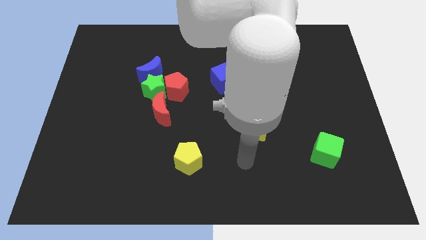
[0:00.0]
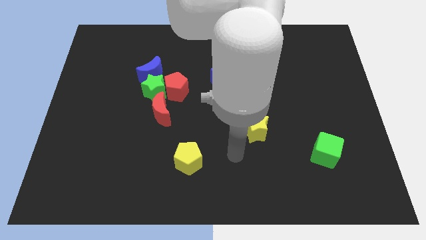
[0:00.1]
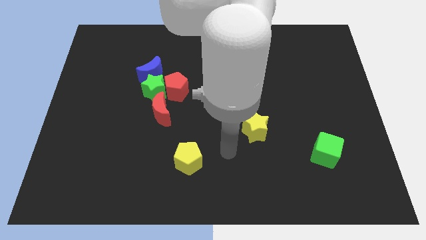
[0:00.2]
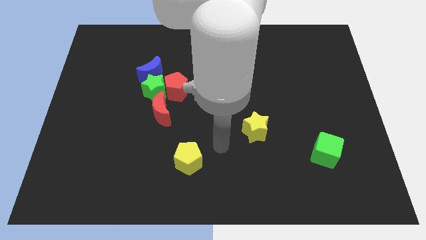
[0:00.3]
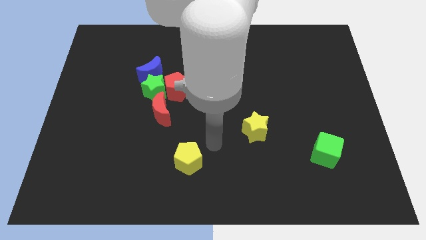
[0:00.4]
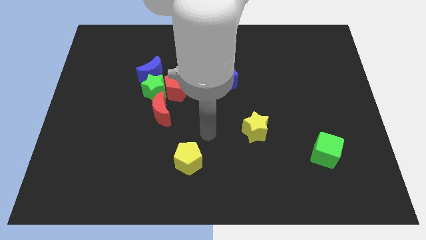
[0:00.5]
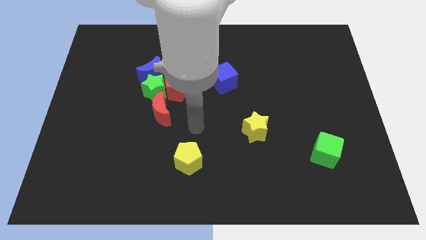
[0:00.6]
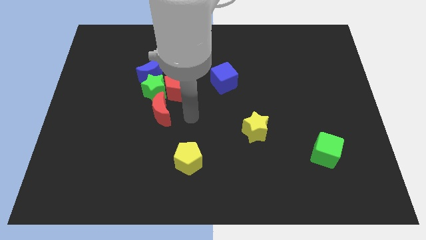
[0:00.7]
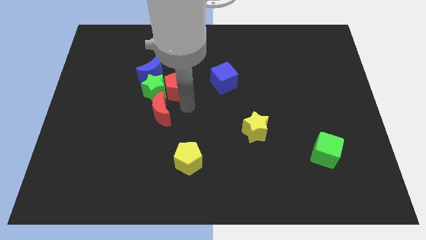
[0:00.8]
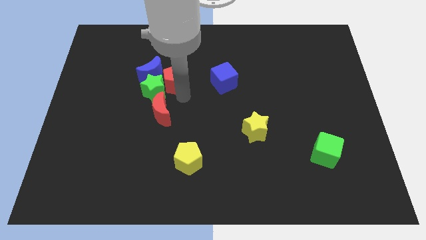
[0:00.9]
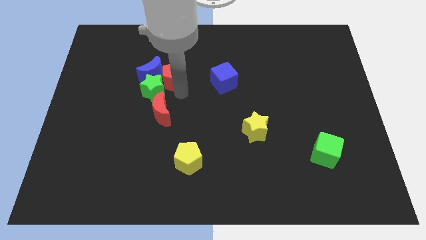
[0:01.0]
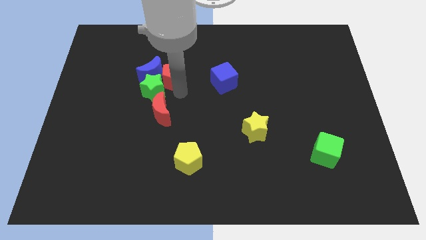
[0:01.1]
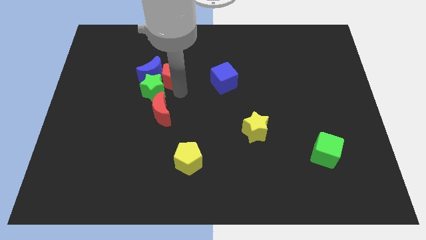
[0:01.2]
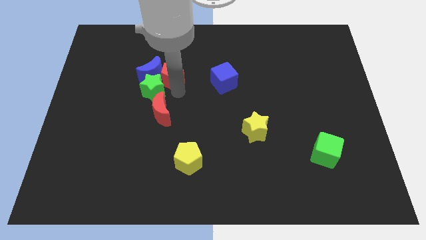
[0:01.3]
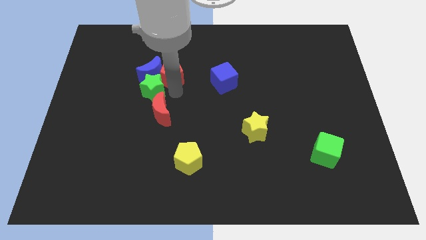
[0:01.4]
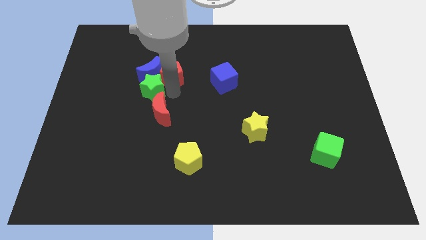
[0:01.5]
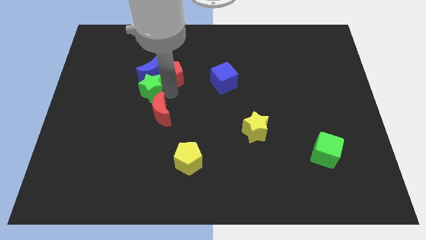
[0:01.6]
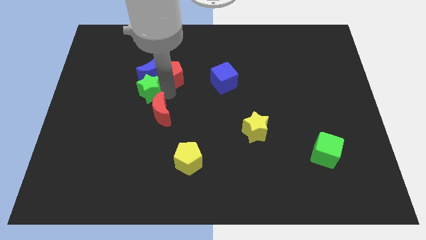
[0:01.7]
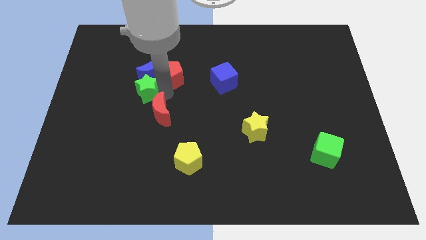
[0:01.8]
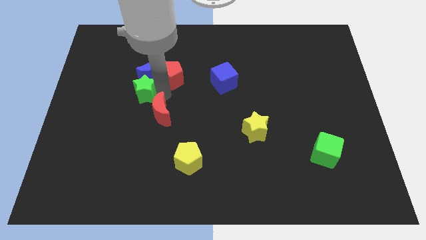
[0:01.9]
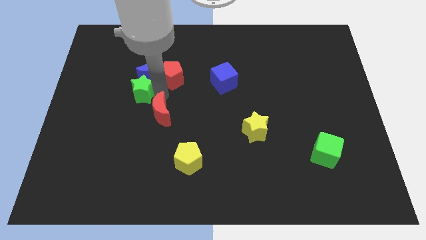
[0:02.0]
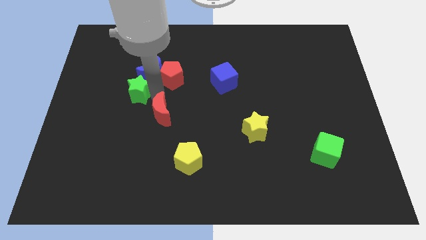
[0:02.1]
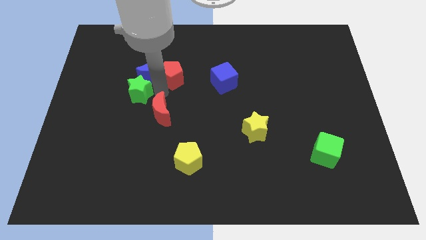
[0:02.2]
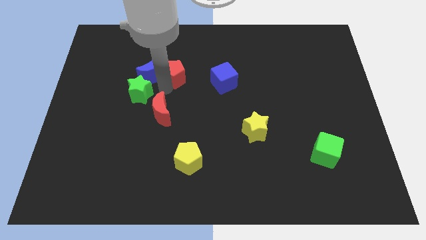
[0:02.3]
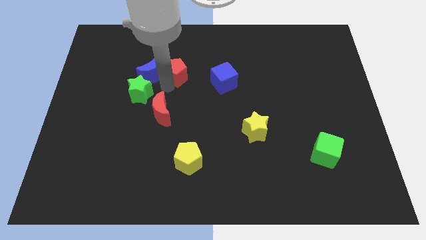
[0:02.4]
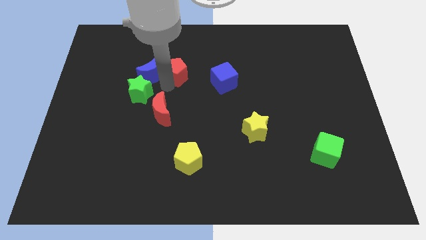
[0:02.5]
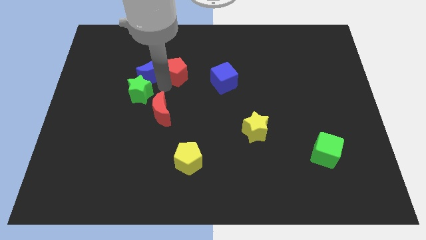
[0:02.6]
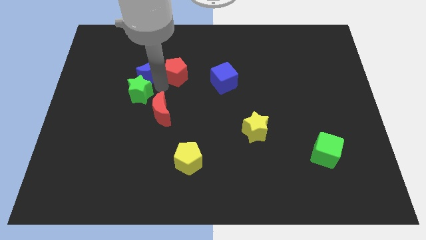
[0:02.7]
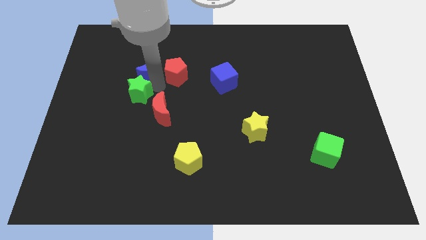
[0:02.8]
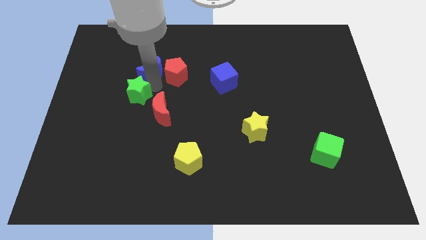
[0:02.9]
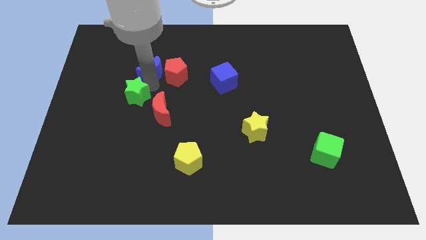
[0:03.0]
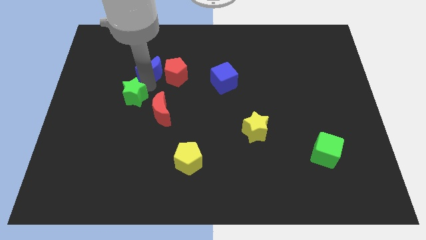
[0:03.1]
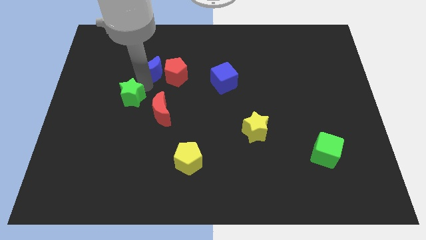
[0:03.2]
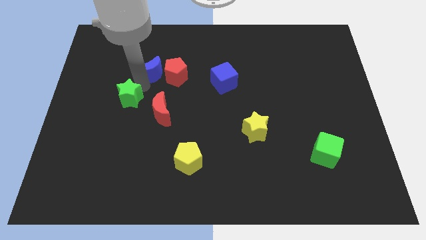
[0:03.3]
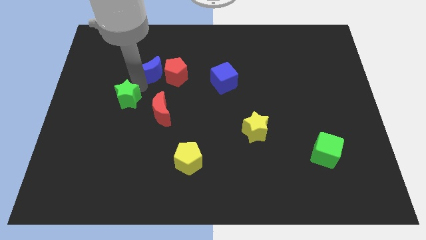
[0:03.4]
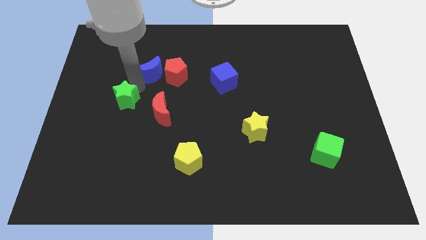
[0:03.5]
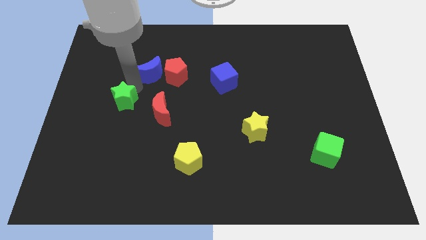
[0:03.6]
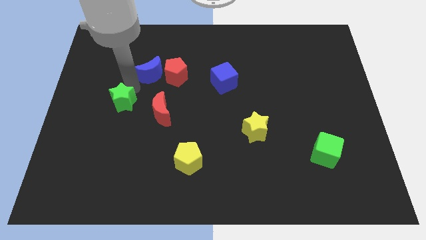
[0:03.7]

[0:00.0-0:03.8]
separate the green star from the blue moon, red pentagon, and red moon

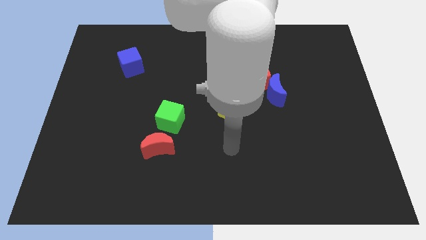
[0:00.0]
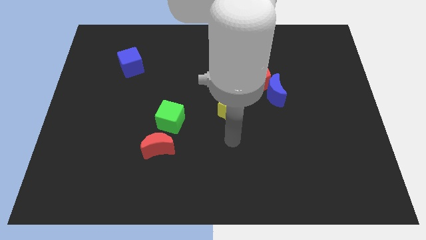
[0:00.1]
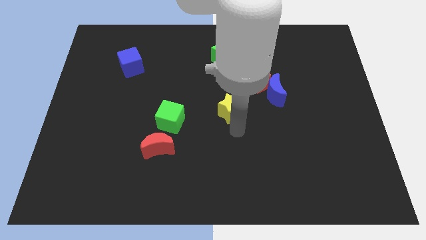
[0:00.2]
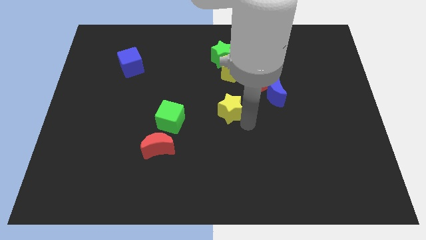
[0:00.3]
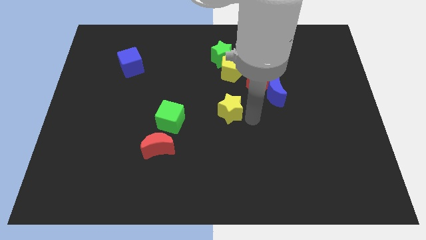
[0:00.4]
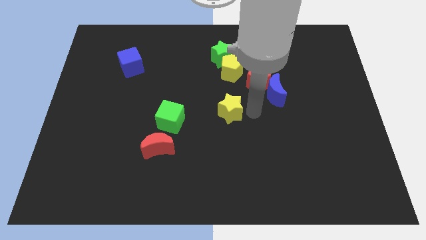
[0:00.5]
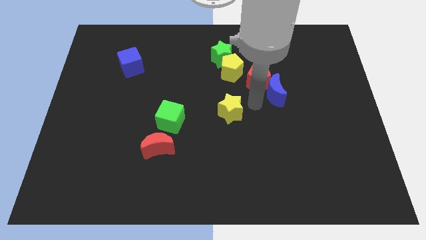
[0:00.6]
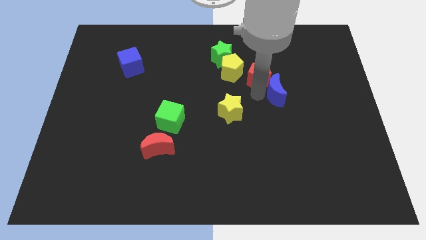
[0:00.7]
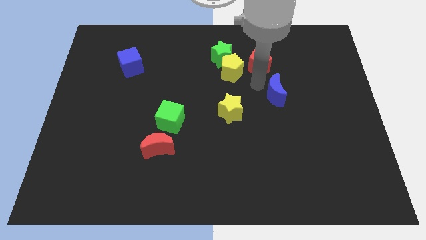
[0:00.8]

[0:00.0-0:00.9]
pull the blue moon apart from the red pentagon

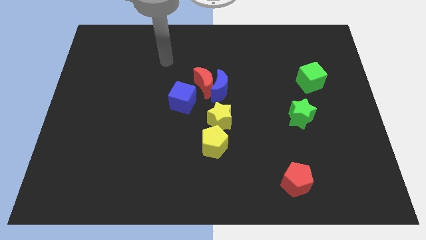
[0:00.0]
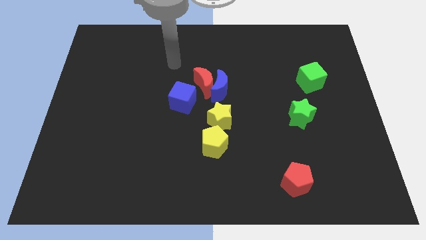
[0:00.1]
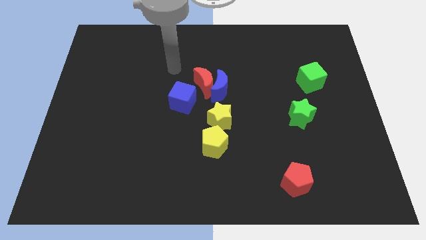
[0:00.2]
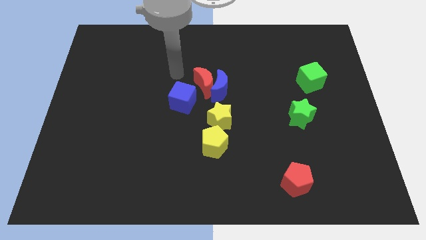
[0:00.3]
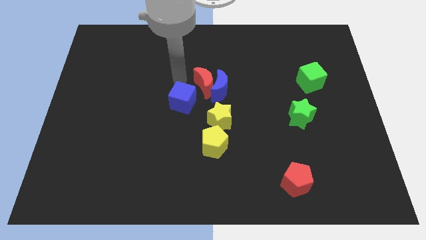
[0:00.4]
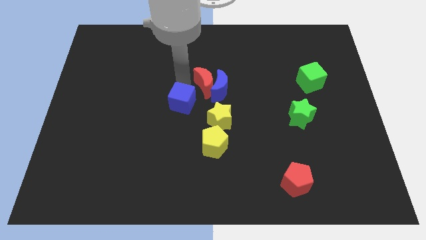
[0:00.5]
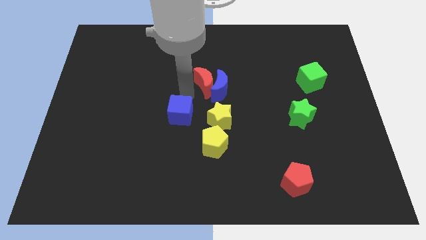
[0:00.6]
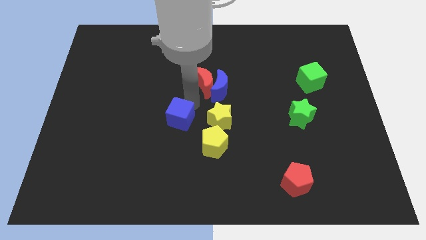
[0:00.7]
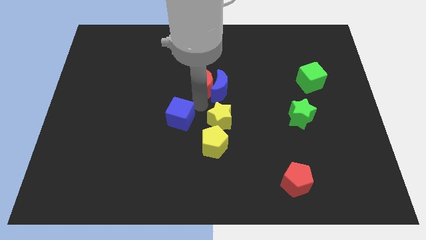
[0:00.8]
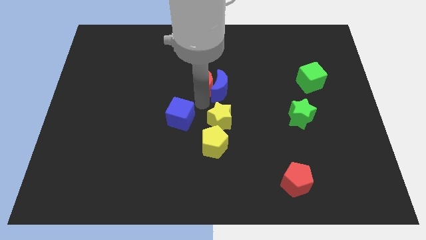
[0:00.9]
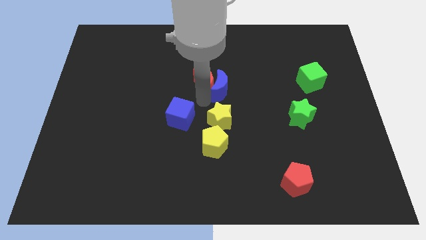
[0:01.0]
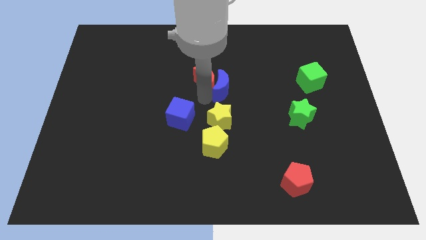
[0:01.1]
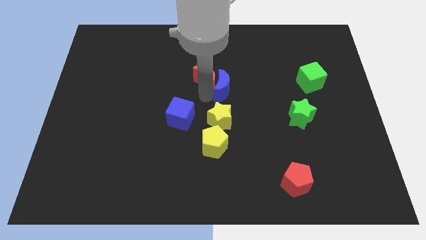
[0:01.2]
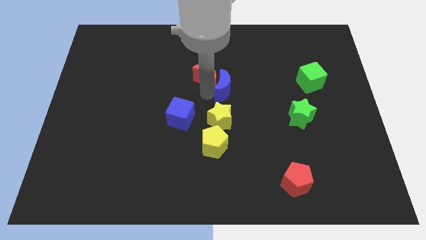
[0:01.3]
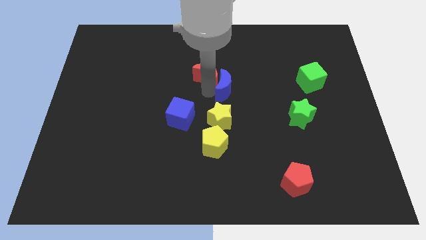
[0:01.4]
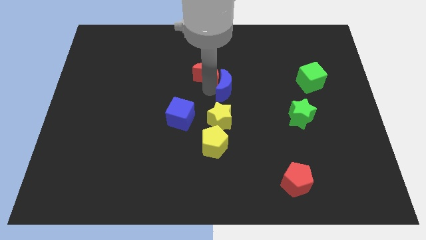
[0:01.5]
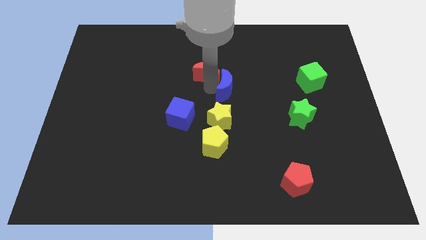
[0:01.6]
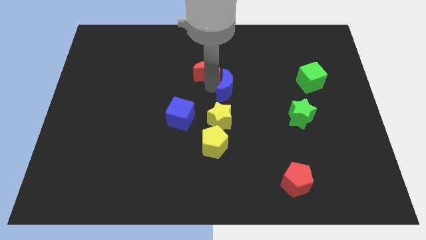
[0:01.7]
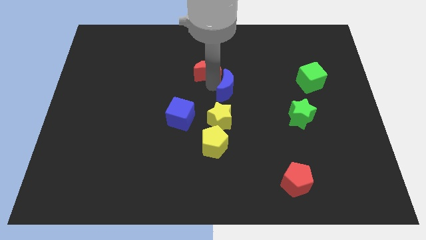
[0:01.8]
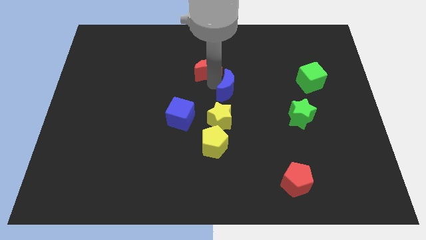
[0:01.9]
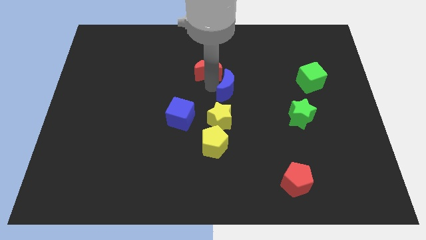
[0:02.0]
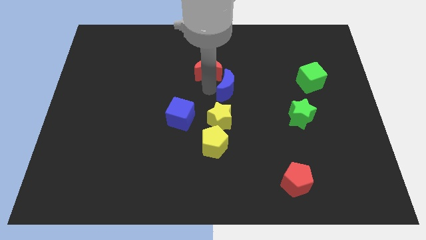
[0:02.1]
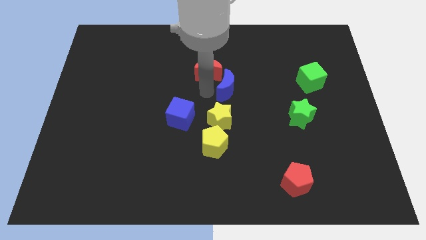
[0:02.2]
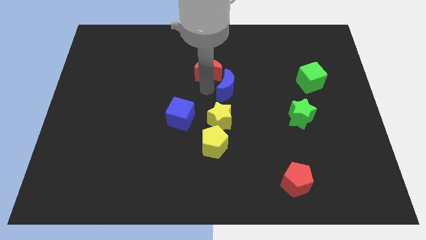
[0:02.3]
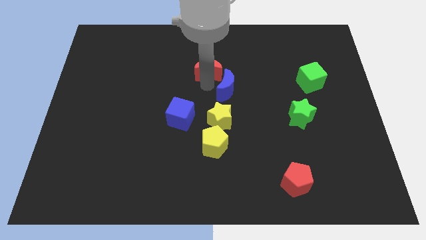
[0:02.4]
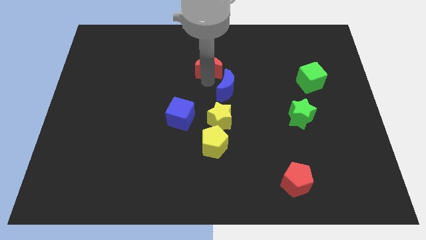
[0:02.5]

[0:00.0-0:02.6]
separate the red moon from the blue moon and blue cube

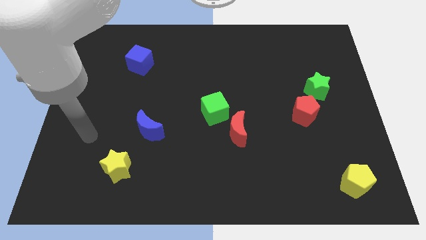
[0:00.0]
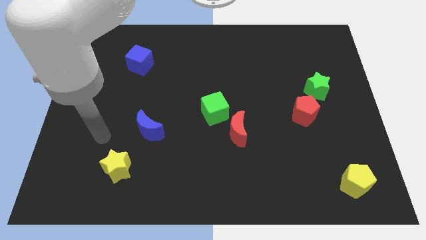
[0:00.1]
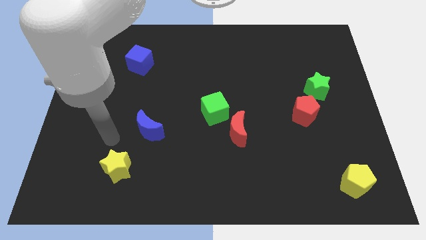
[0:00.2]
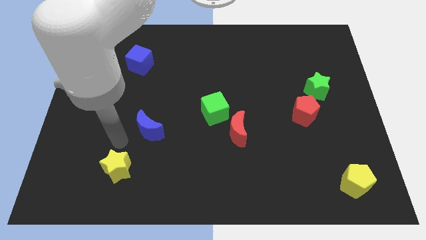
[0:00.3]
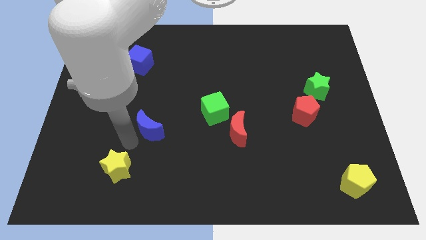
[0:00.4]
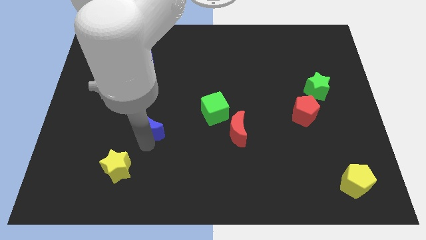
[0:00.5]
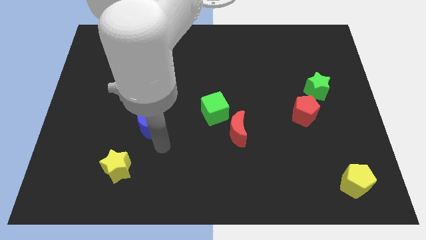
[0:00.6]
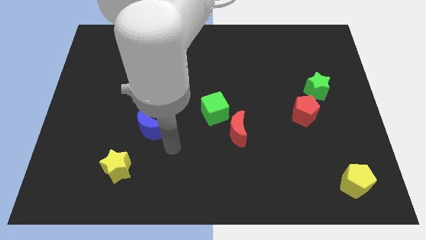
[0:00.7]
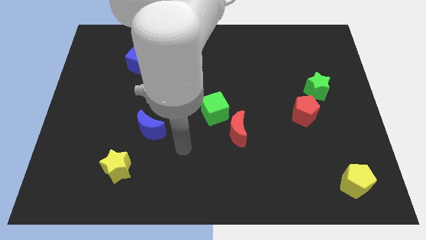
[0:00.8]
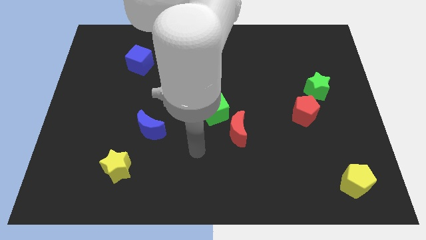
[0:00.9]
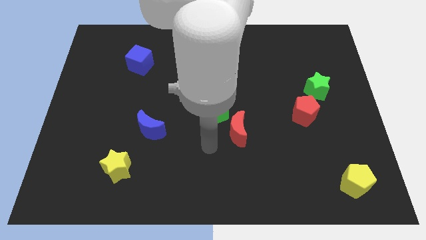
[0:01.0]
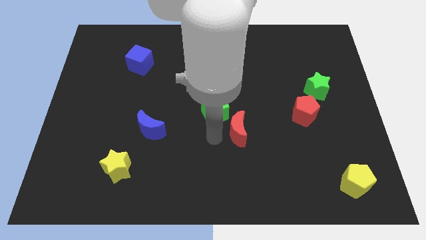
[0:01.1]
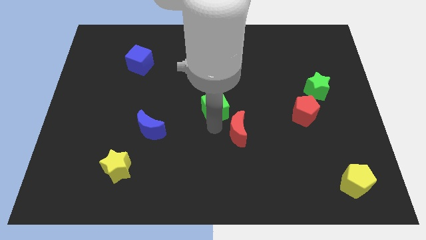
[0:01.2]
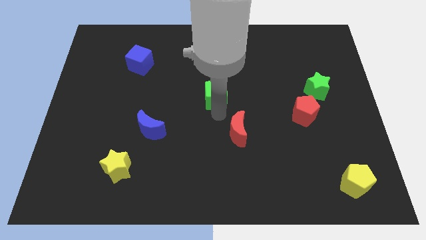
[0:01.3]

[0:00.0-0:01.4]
pull the red moon apart from the green cube

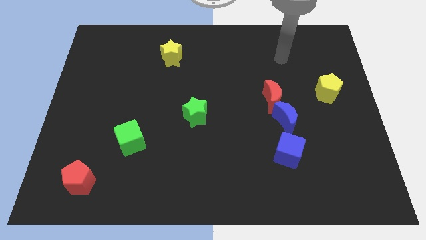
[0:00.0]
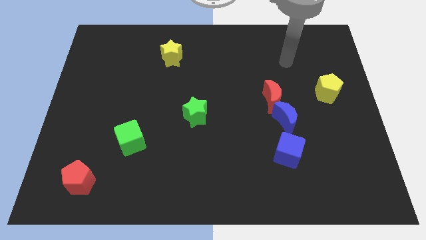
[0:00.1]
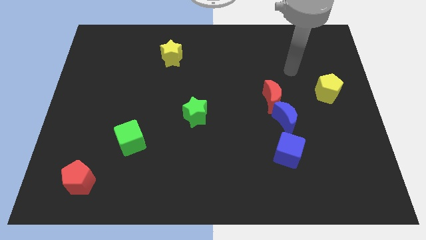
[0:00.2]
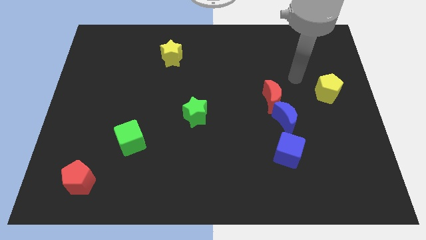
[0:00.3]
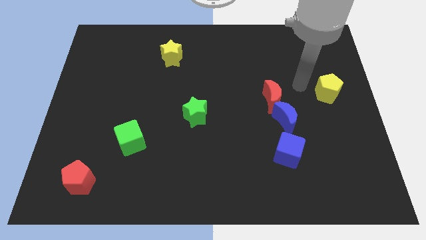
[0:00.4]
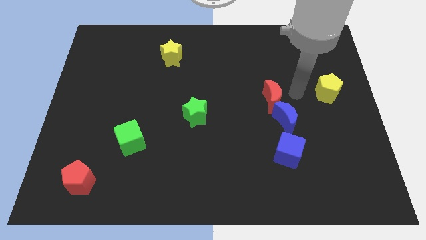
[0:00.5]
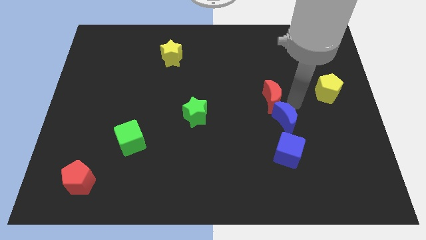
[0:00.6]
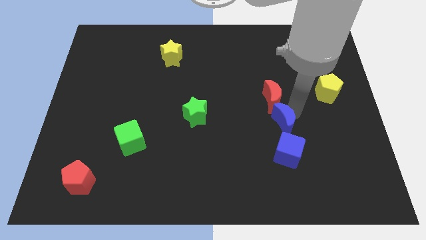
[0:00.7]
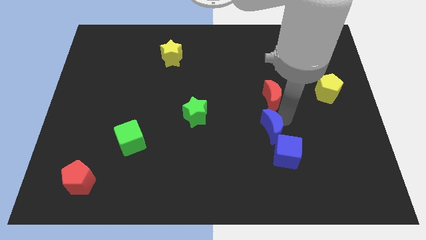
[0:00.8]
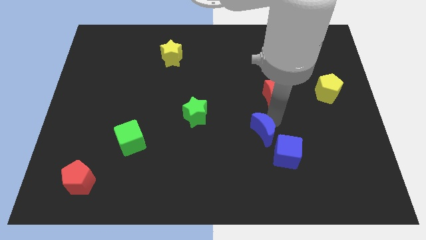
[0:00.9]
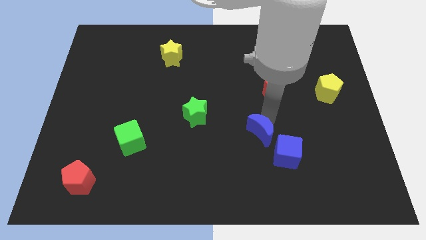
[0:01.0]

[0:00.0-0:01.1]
pull the red moon apart from the blue moon
